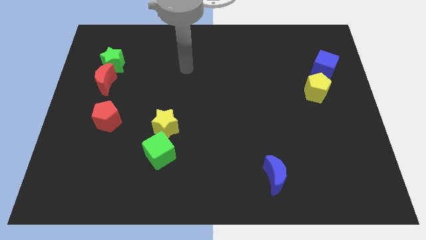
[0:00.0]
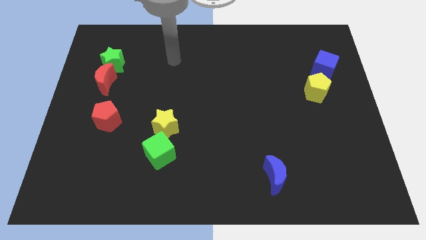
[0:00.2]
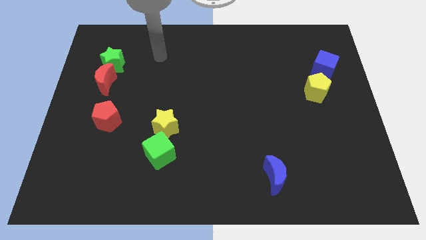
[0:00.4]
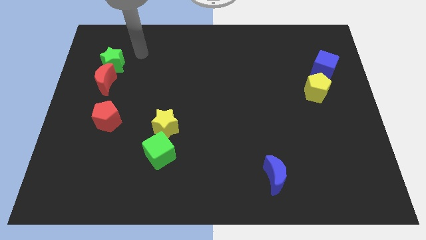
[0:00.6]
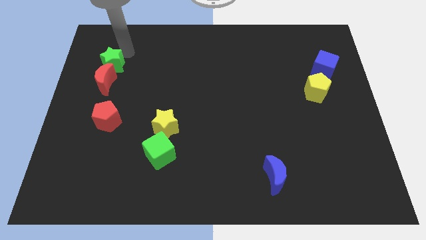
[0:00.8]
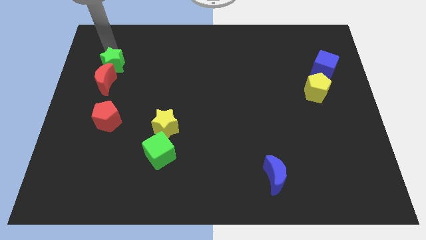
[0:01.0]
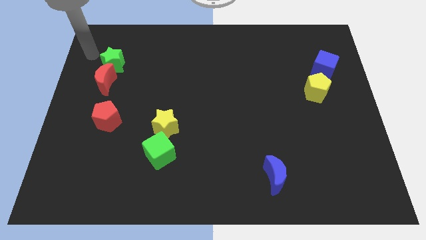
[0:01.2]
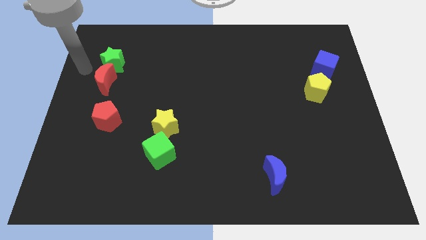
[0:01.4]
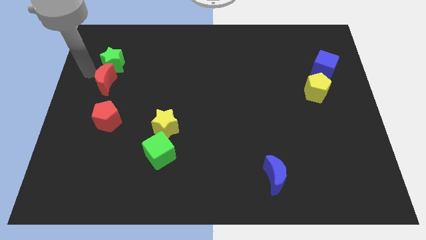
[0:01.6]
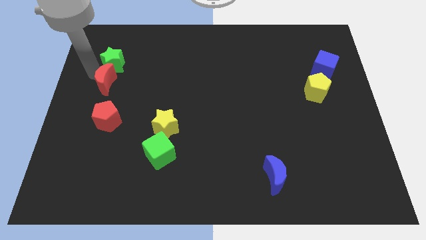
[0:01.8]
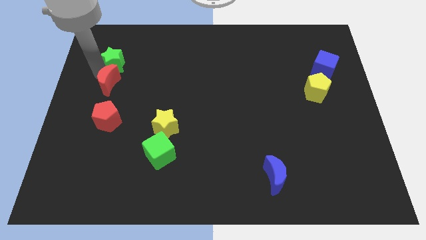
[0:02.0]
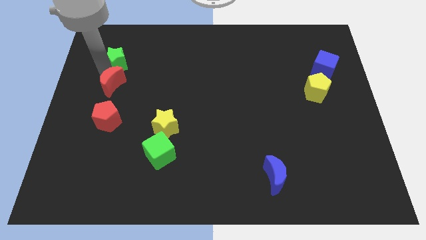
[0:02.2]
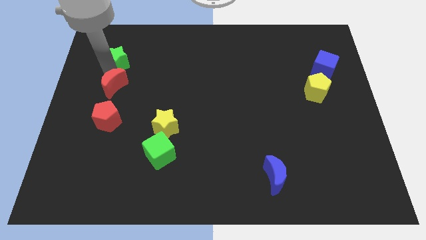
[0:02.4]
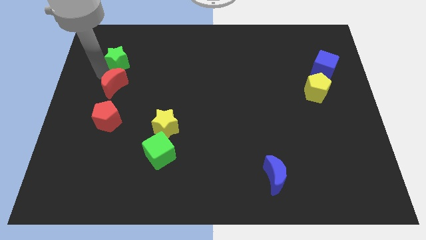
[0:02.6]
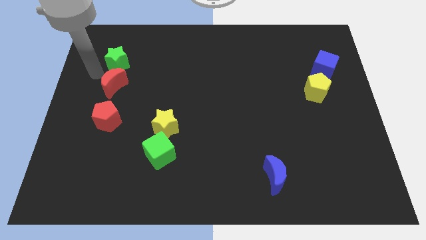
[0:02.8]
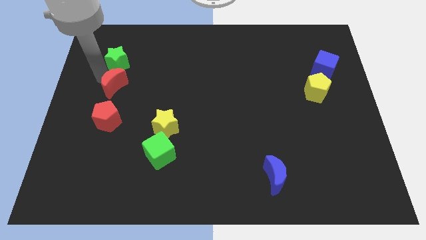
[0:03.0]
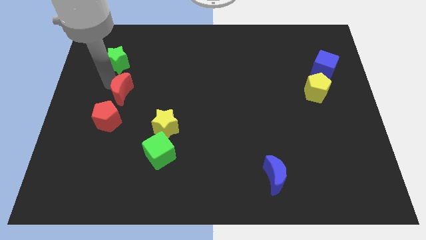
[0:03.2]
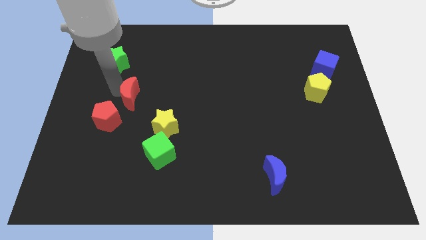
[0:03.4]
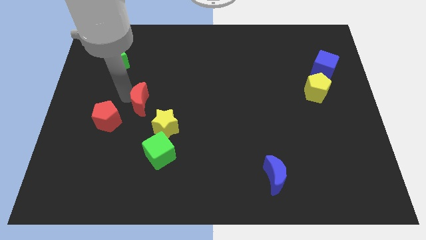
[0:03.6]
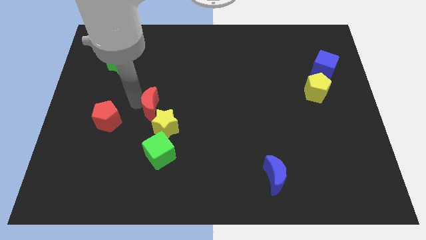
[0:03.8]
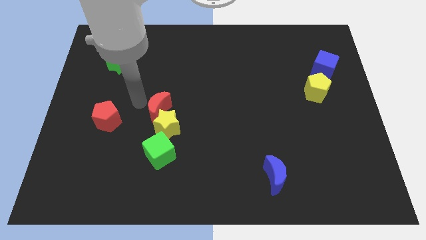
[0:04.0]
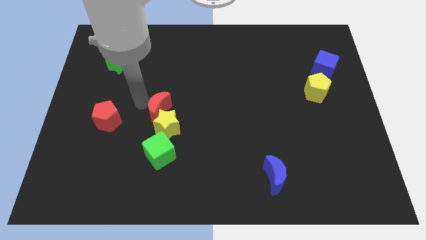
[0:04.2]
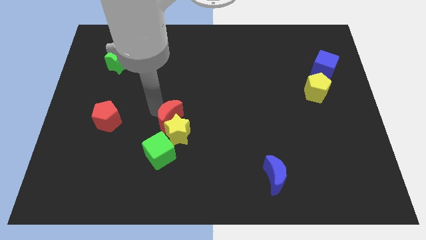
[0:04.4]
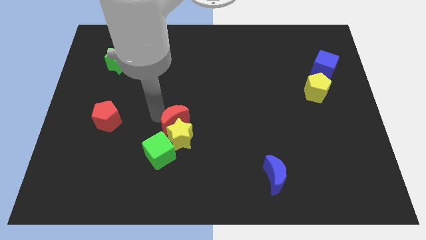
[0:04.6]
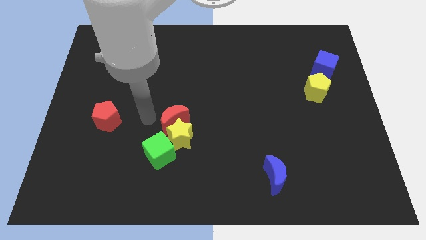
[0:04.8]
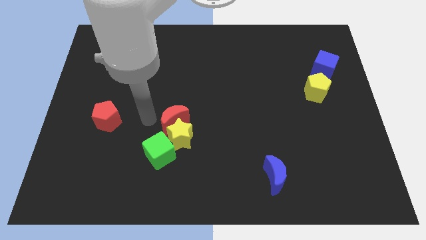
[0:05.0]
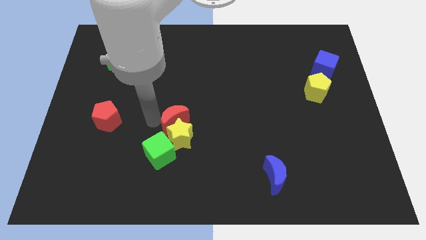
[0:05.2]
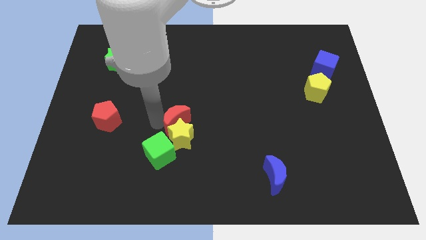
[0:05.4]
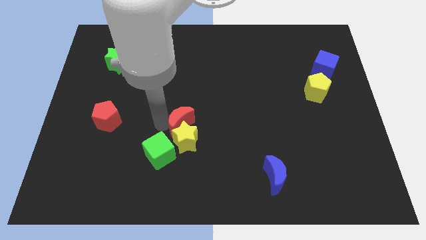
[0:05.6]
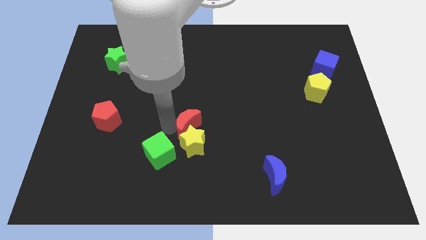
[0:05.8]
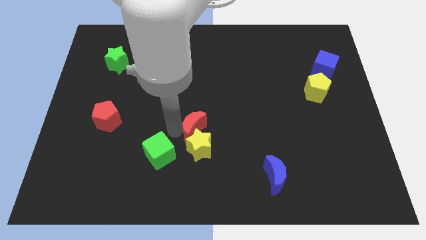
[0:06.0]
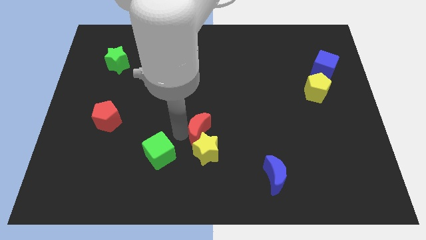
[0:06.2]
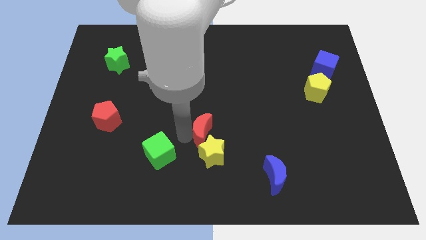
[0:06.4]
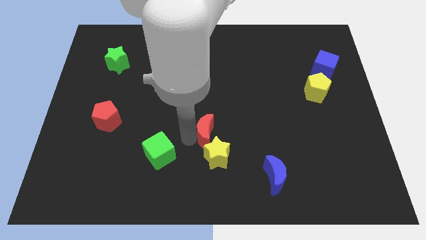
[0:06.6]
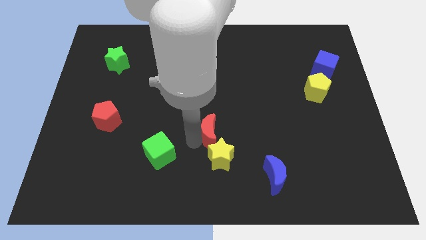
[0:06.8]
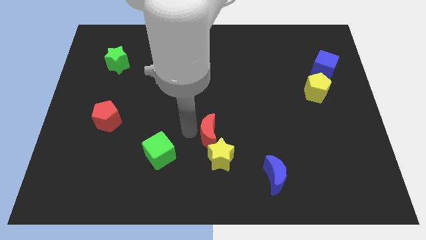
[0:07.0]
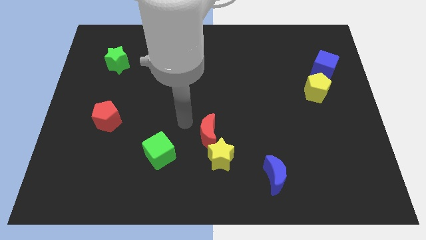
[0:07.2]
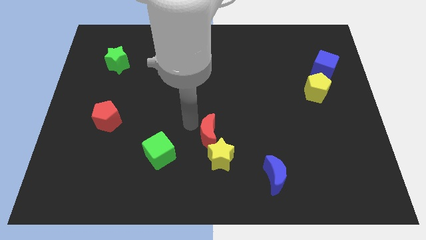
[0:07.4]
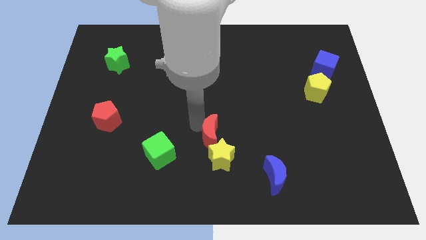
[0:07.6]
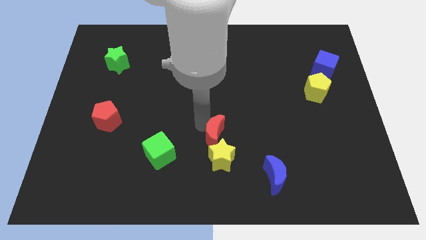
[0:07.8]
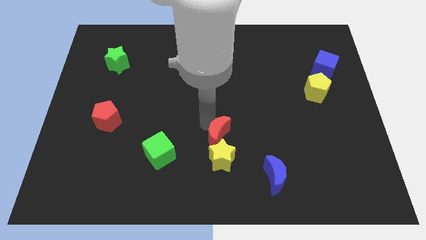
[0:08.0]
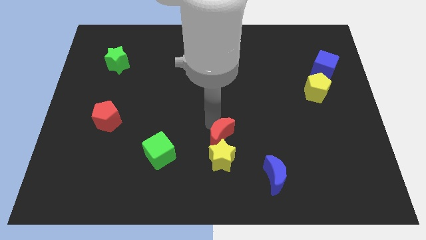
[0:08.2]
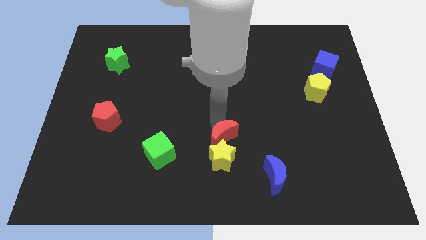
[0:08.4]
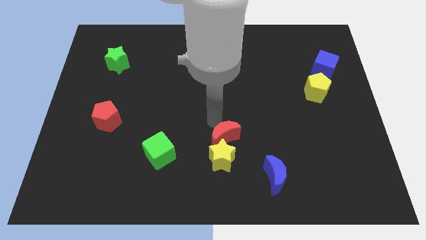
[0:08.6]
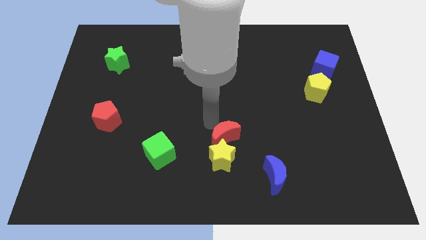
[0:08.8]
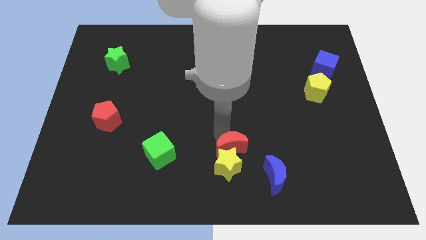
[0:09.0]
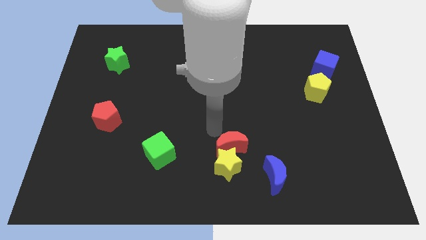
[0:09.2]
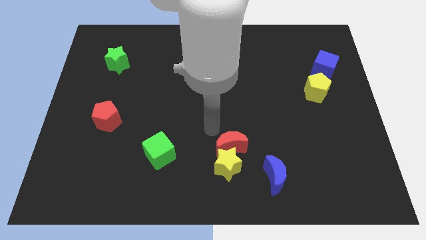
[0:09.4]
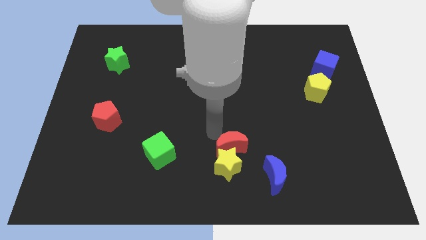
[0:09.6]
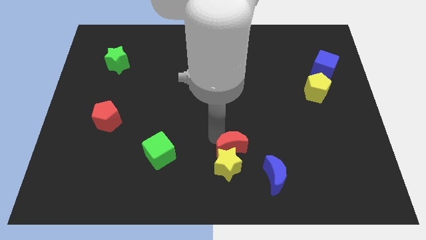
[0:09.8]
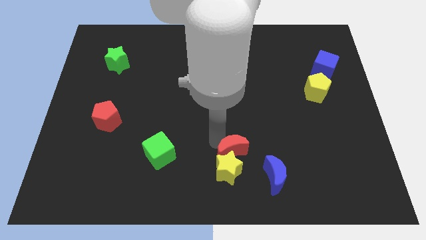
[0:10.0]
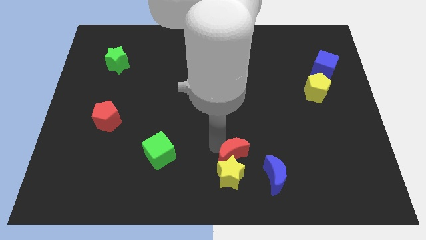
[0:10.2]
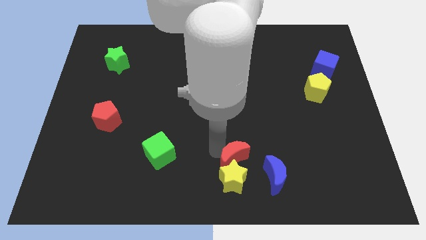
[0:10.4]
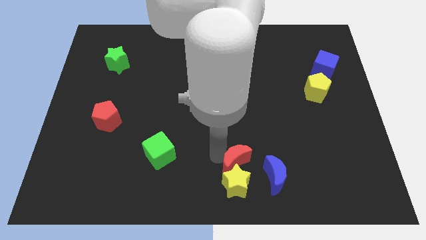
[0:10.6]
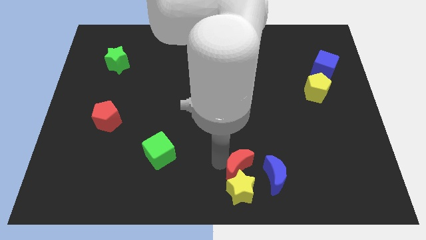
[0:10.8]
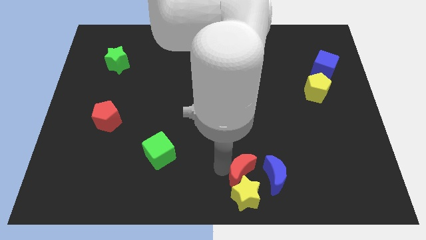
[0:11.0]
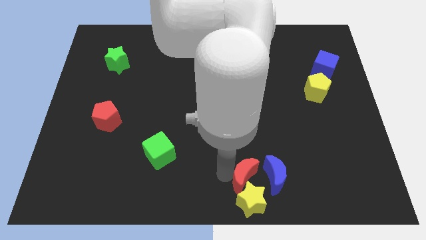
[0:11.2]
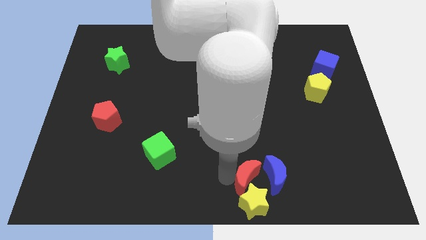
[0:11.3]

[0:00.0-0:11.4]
slide the red moon close to the blue moon

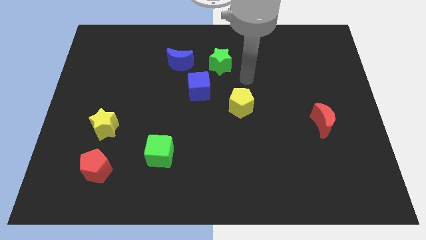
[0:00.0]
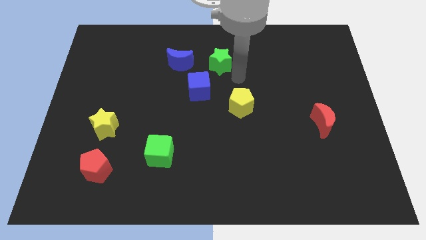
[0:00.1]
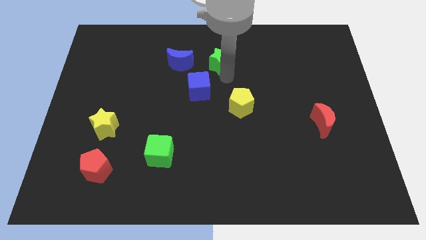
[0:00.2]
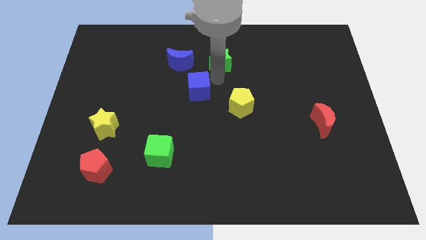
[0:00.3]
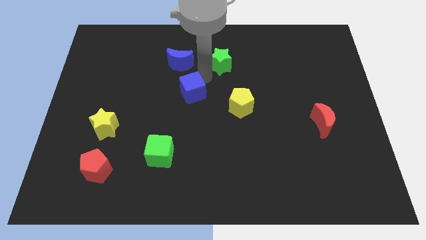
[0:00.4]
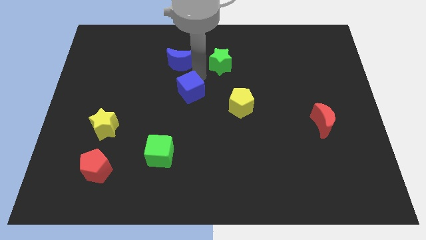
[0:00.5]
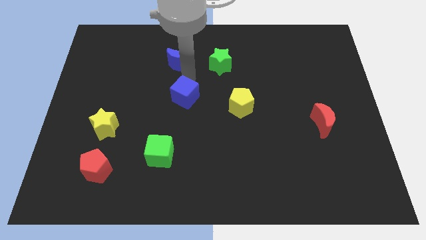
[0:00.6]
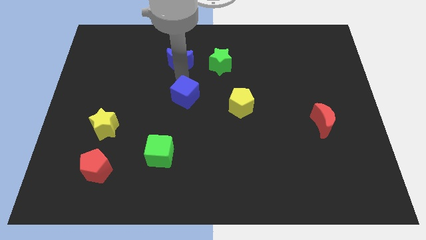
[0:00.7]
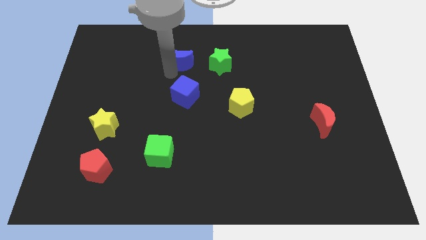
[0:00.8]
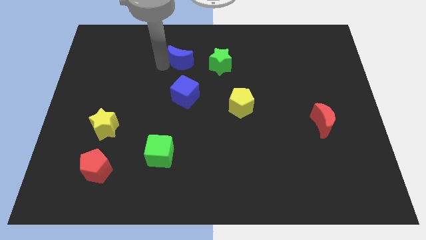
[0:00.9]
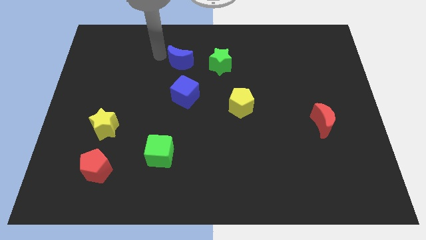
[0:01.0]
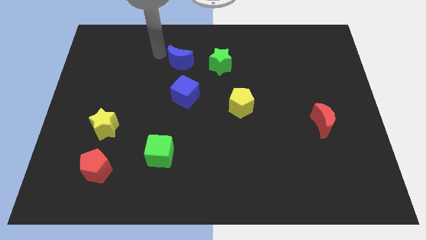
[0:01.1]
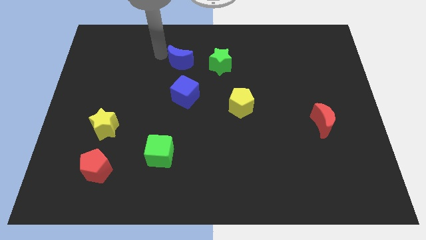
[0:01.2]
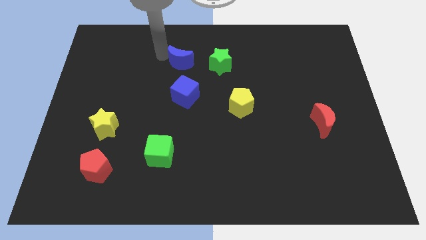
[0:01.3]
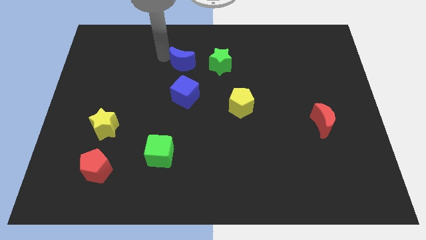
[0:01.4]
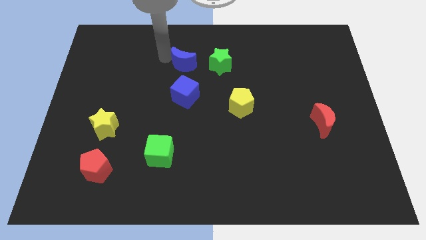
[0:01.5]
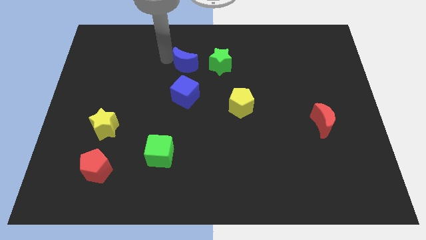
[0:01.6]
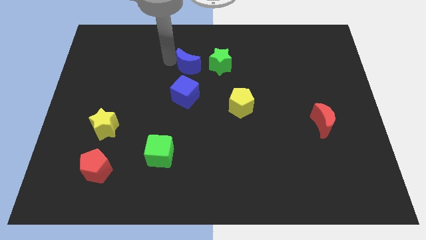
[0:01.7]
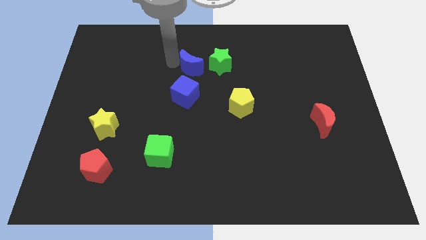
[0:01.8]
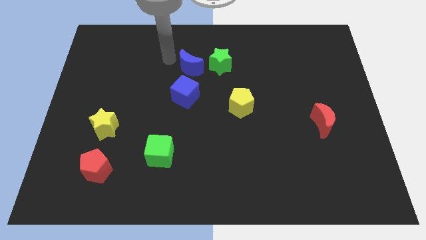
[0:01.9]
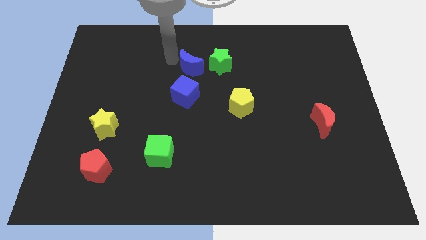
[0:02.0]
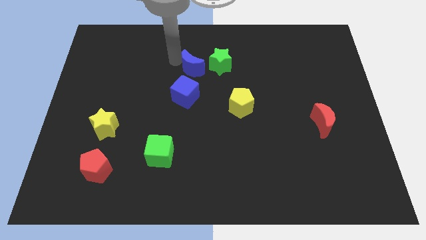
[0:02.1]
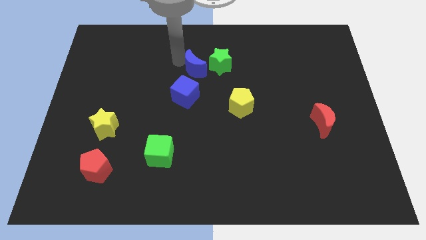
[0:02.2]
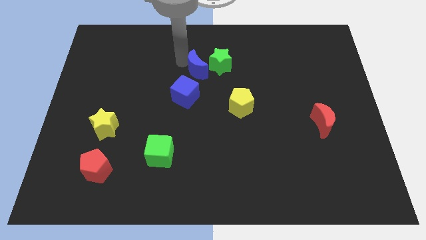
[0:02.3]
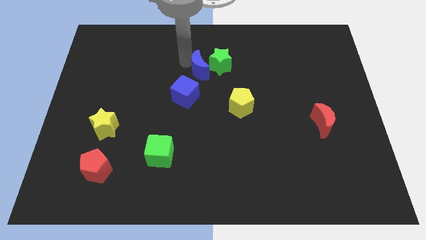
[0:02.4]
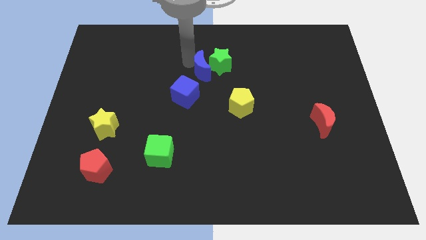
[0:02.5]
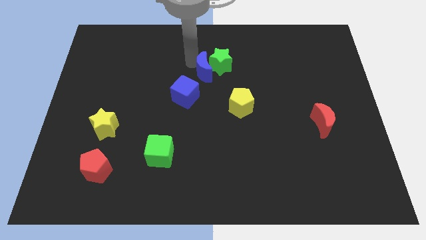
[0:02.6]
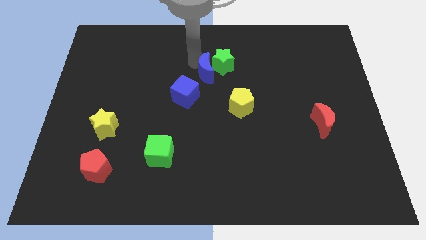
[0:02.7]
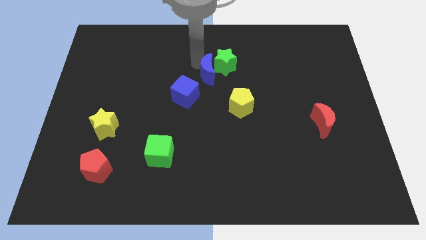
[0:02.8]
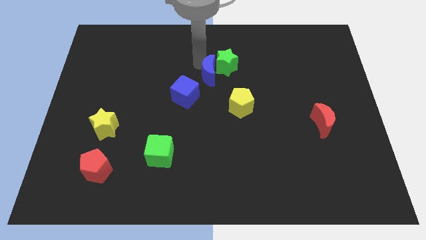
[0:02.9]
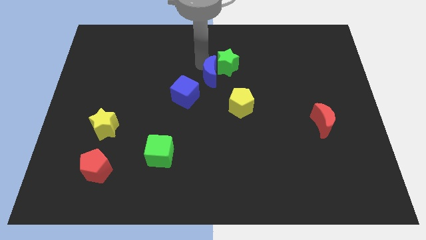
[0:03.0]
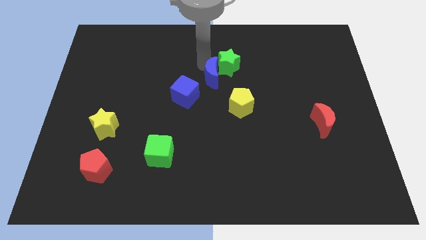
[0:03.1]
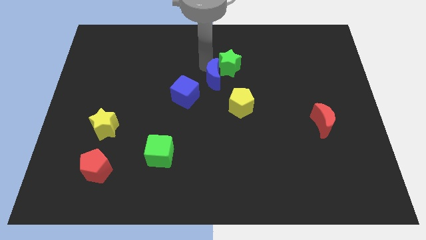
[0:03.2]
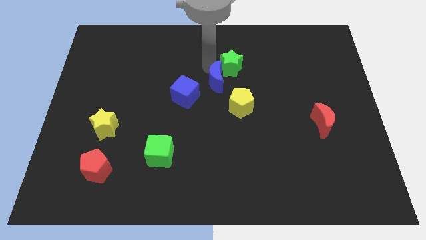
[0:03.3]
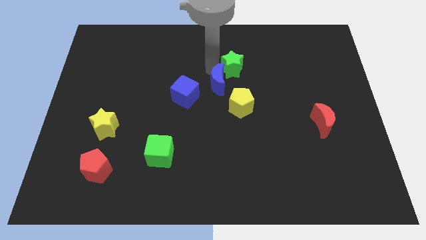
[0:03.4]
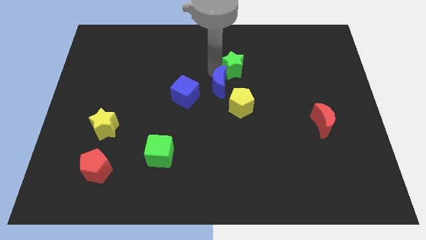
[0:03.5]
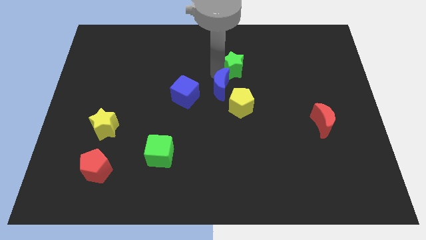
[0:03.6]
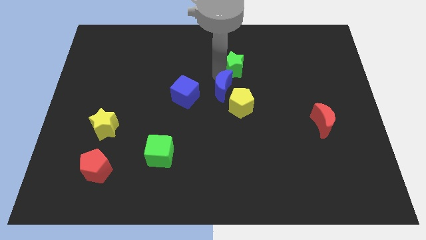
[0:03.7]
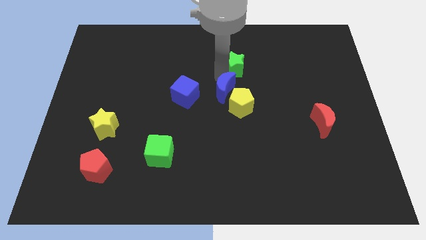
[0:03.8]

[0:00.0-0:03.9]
push the blue moon towards the yellow pentagon
